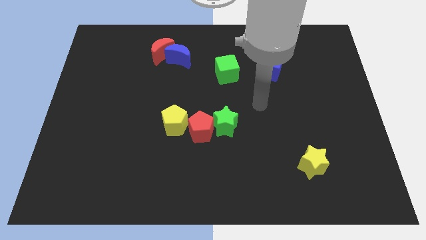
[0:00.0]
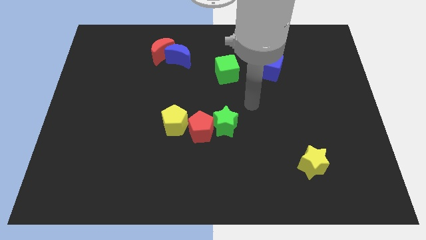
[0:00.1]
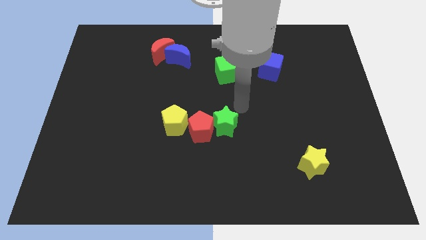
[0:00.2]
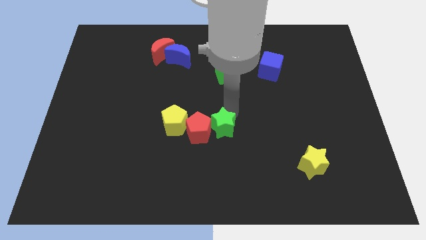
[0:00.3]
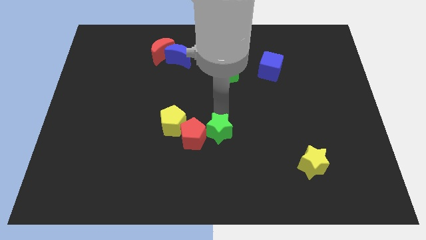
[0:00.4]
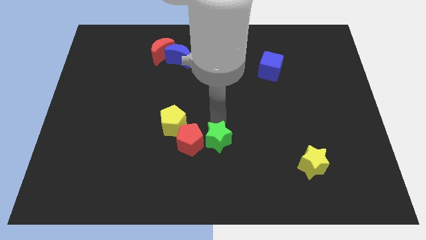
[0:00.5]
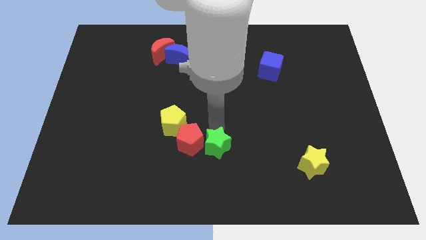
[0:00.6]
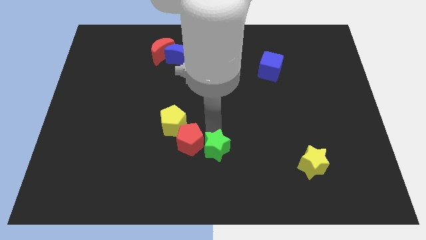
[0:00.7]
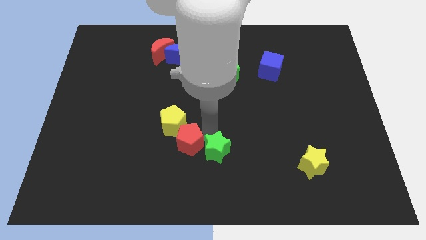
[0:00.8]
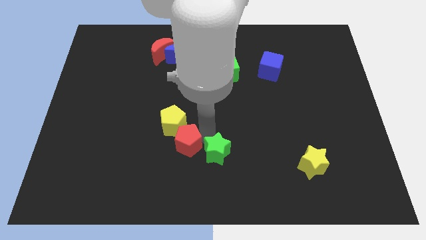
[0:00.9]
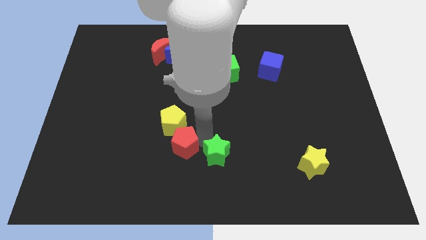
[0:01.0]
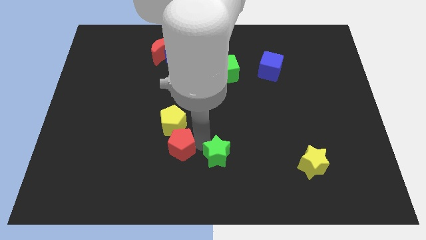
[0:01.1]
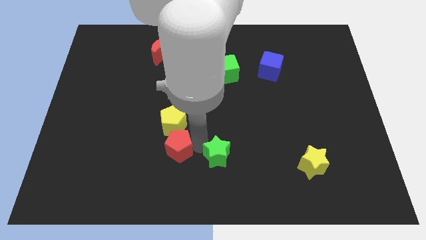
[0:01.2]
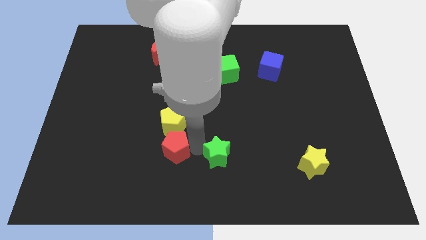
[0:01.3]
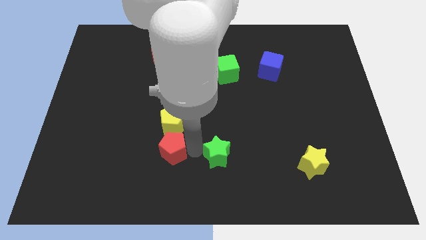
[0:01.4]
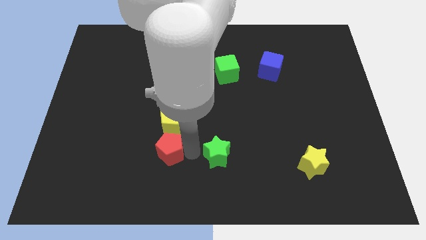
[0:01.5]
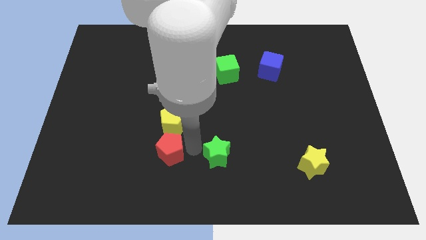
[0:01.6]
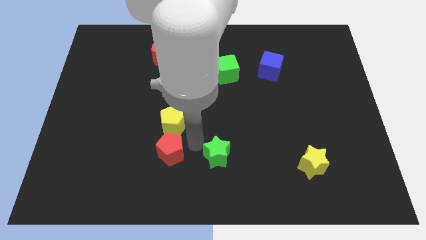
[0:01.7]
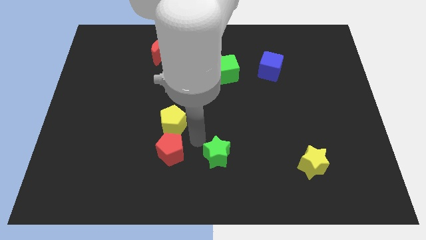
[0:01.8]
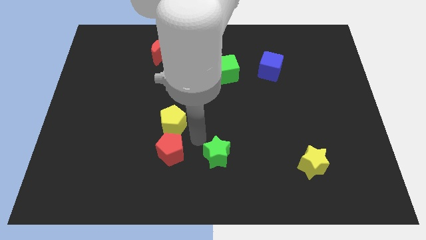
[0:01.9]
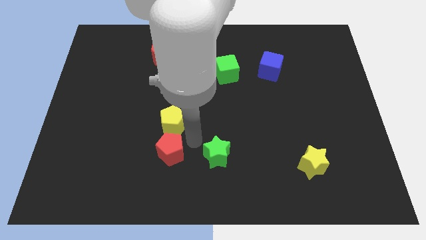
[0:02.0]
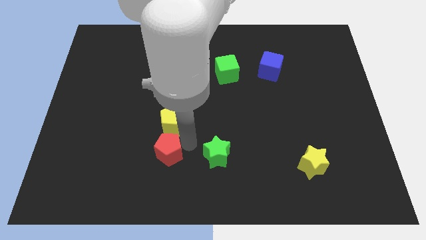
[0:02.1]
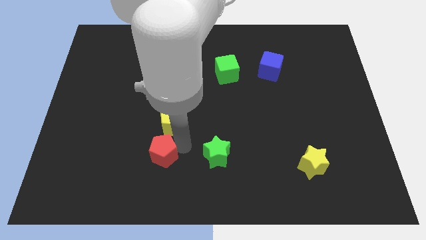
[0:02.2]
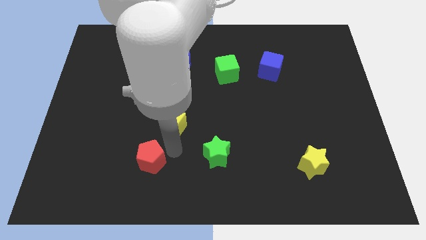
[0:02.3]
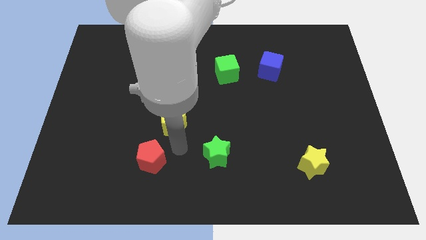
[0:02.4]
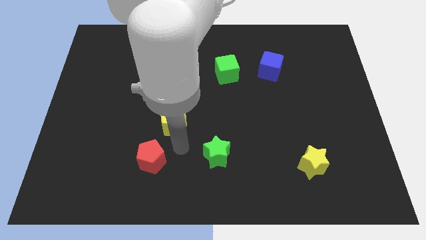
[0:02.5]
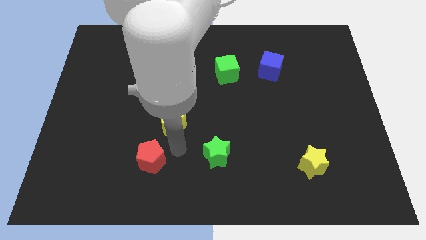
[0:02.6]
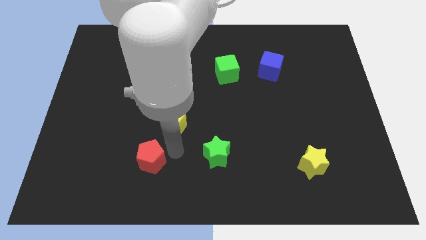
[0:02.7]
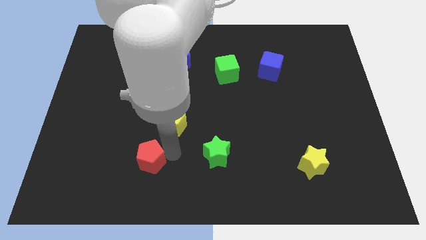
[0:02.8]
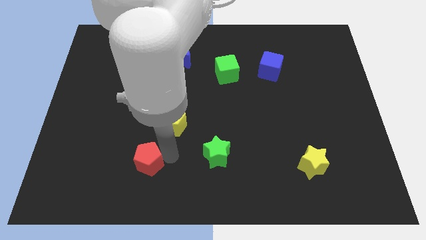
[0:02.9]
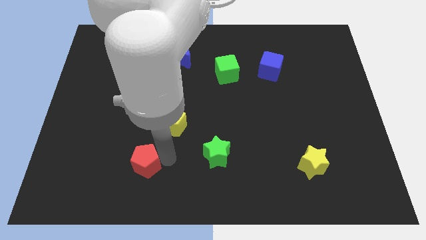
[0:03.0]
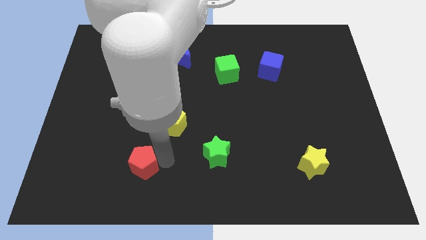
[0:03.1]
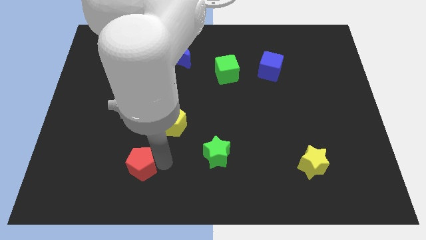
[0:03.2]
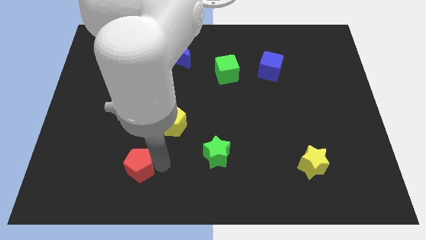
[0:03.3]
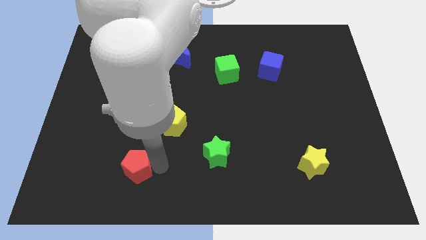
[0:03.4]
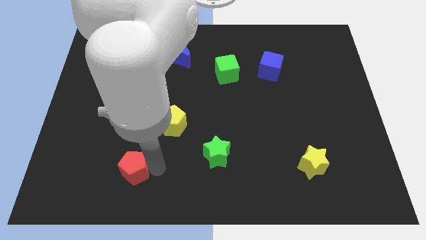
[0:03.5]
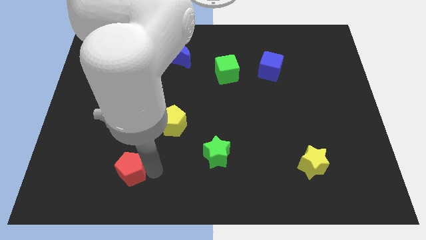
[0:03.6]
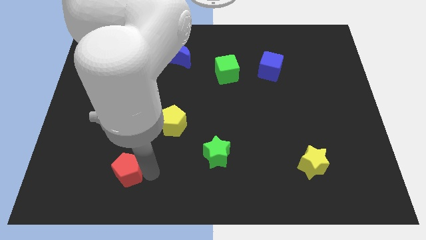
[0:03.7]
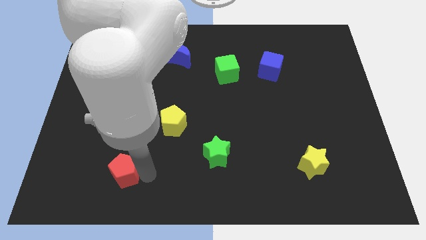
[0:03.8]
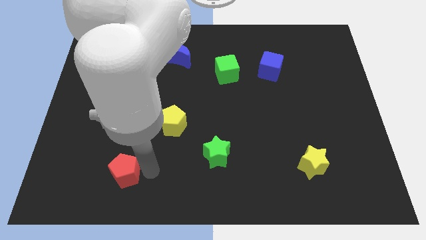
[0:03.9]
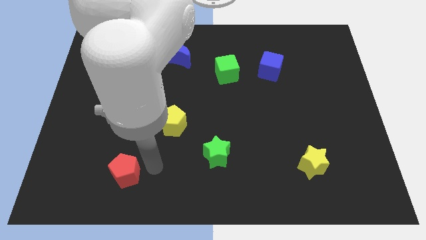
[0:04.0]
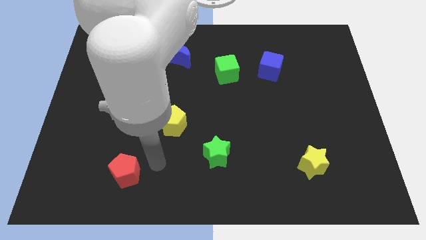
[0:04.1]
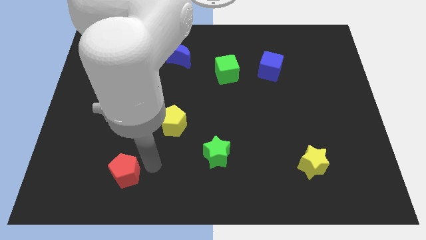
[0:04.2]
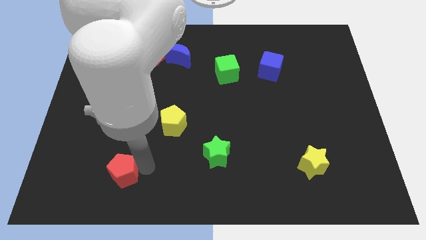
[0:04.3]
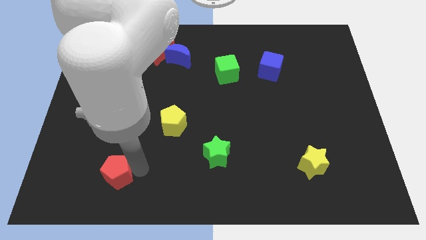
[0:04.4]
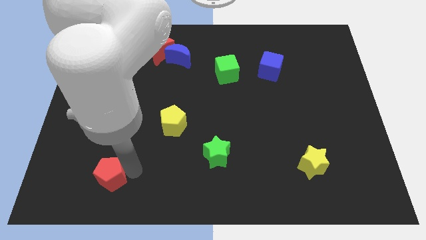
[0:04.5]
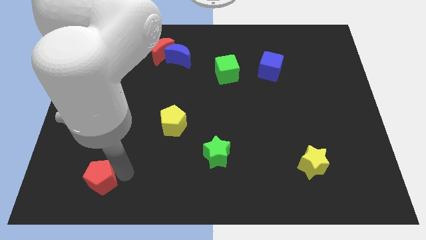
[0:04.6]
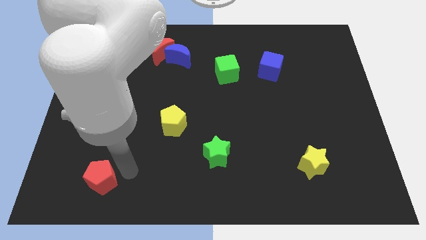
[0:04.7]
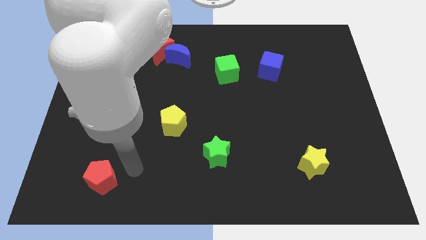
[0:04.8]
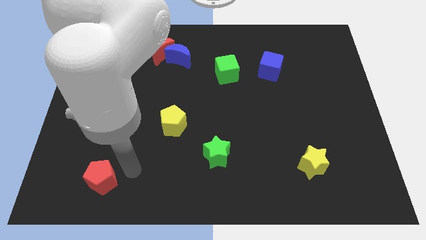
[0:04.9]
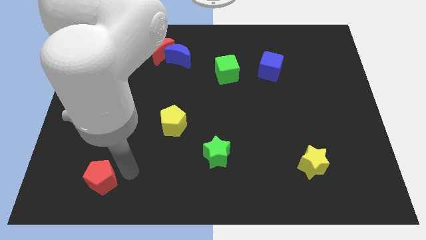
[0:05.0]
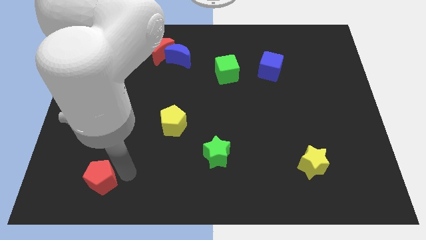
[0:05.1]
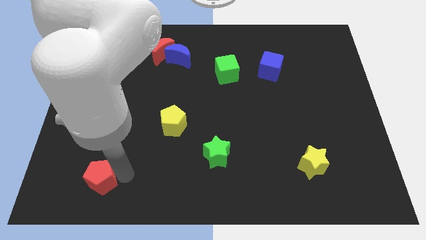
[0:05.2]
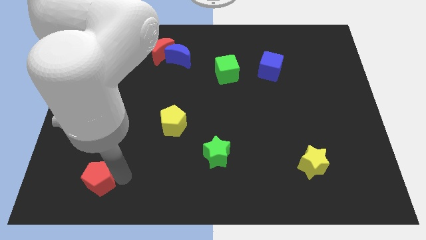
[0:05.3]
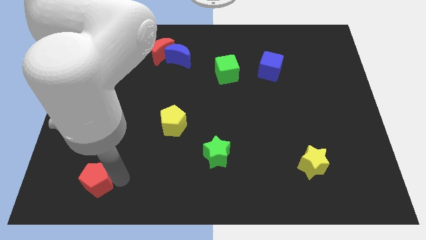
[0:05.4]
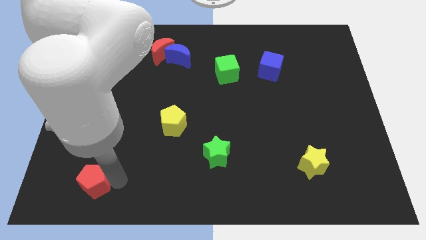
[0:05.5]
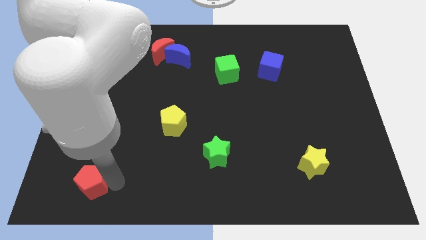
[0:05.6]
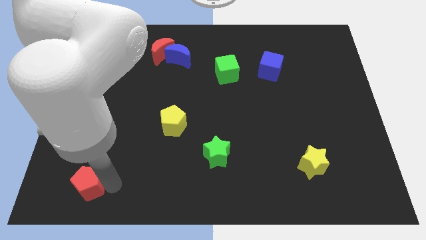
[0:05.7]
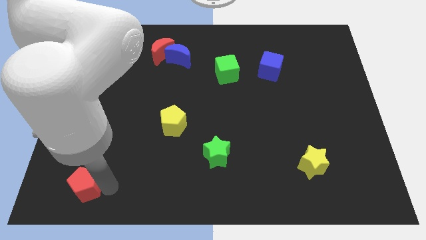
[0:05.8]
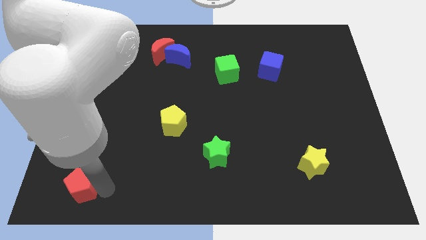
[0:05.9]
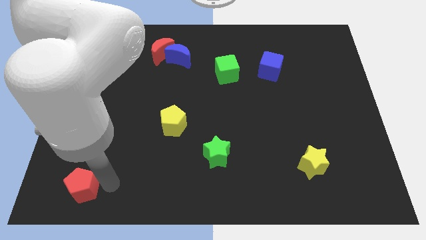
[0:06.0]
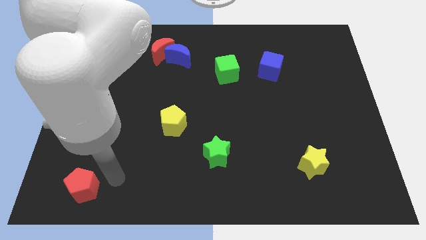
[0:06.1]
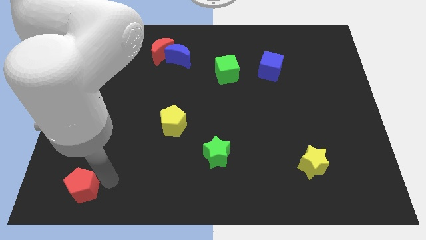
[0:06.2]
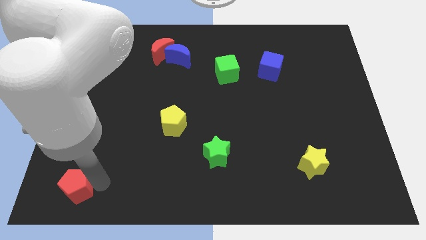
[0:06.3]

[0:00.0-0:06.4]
move the red pentagon to the bottom left corner
